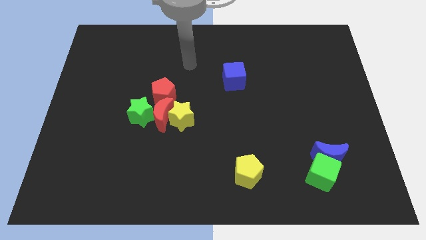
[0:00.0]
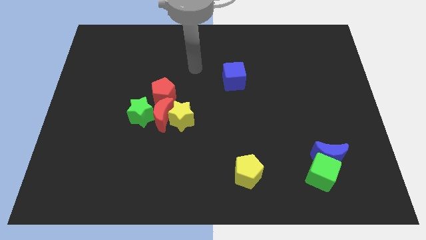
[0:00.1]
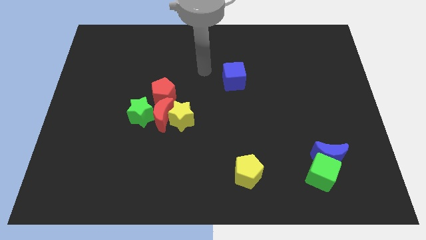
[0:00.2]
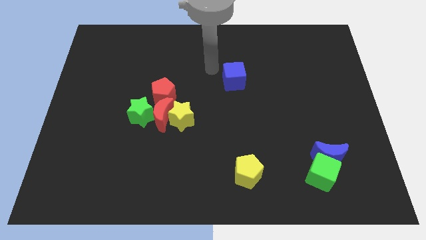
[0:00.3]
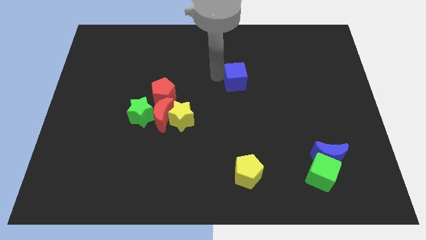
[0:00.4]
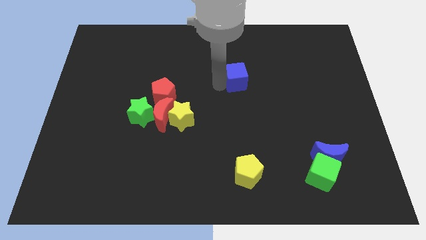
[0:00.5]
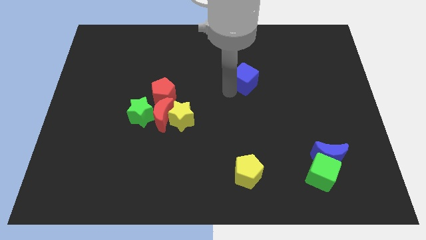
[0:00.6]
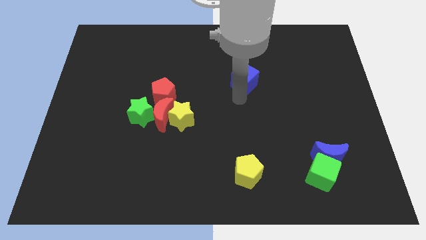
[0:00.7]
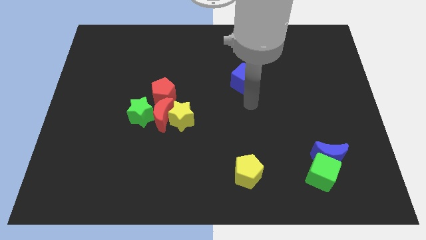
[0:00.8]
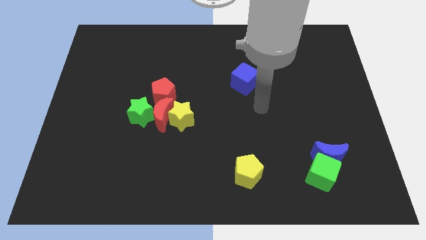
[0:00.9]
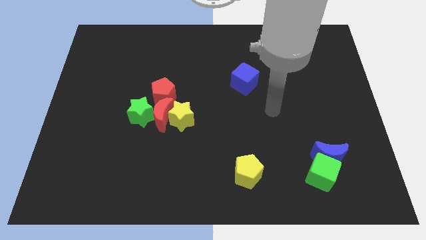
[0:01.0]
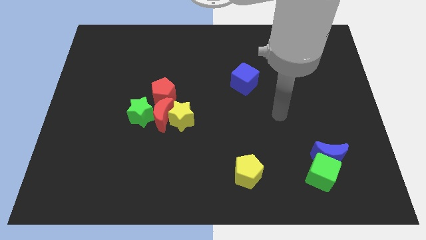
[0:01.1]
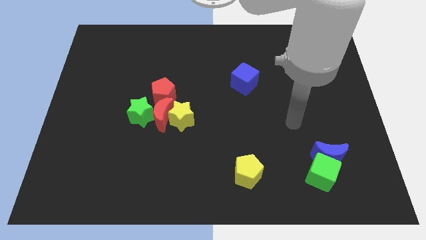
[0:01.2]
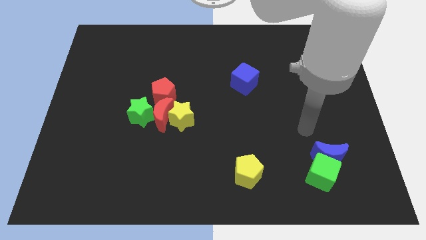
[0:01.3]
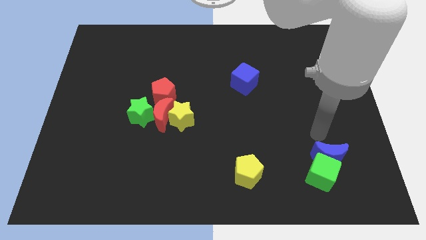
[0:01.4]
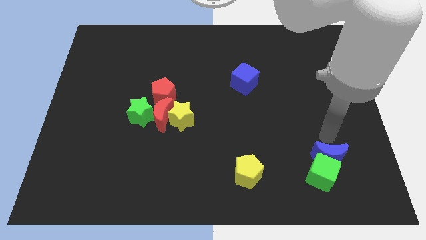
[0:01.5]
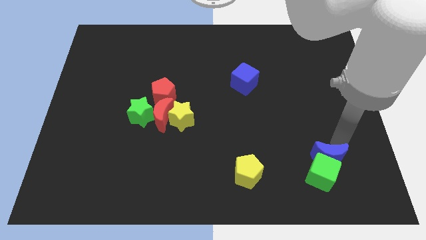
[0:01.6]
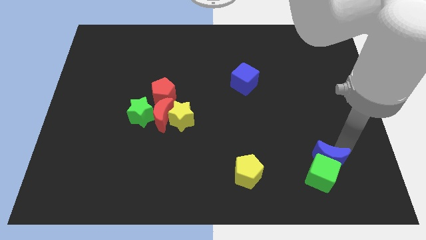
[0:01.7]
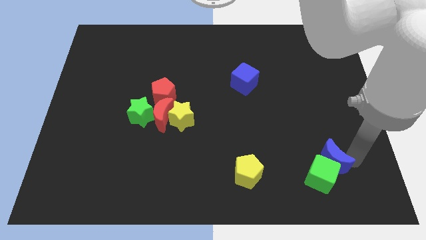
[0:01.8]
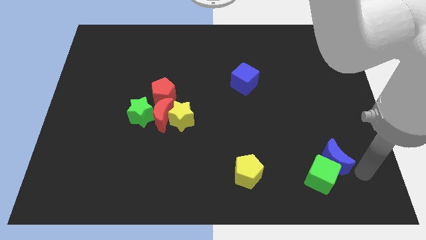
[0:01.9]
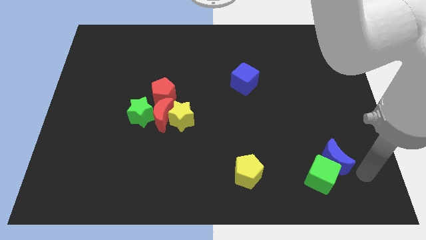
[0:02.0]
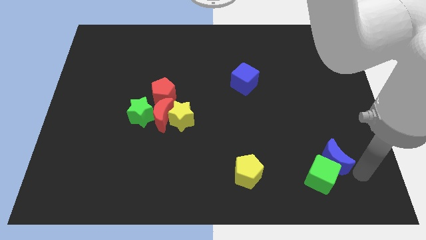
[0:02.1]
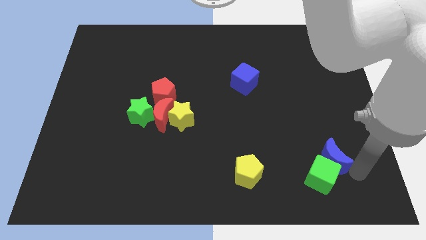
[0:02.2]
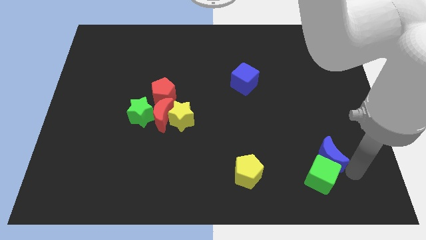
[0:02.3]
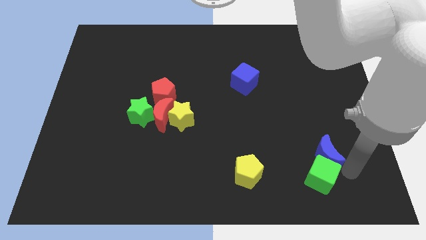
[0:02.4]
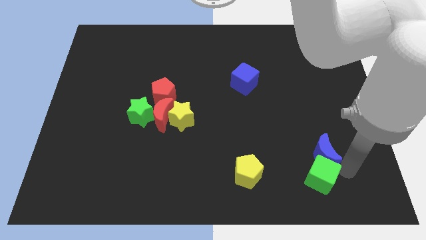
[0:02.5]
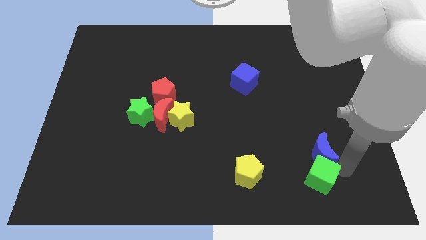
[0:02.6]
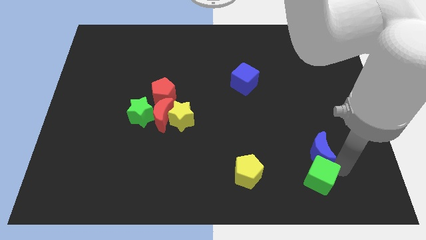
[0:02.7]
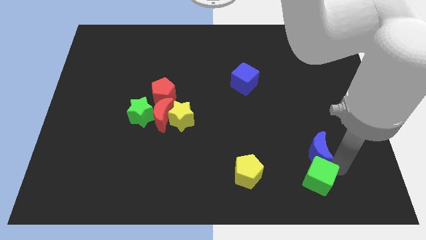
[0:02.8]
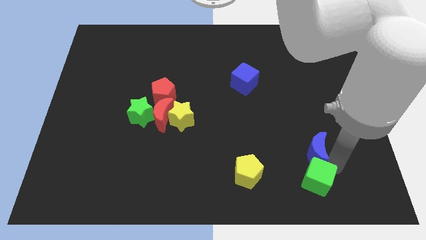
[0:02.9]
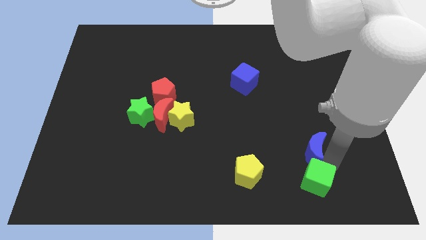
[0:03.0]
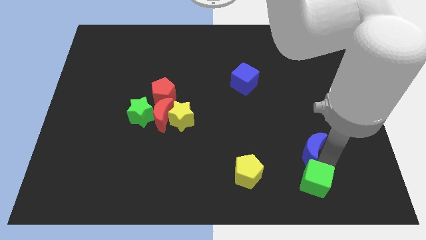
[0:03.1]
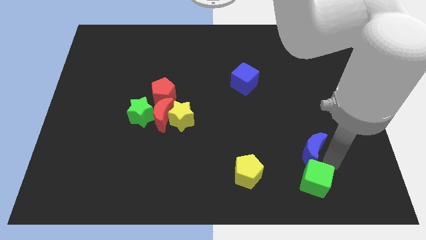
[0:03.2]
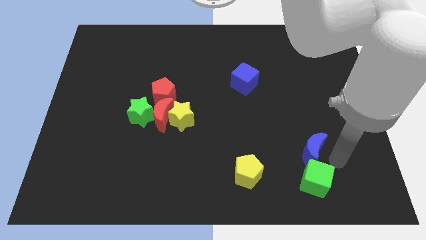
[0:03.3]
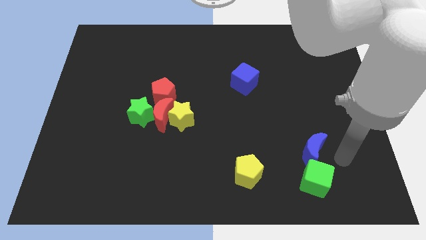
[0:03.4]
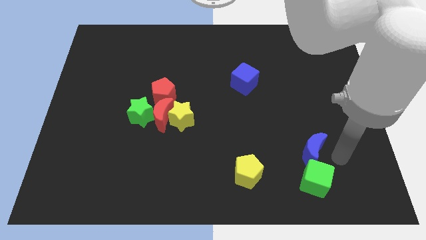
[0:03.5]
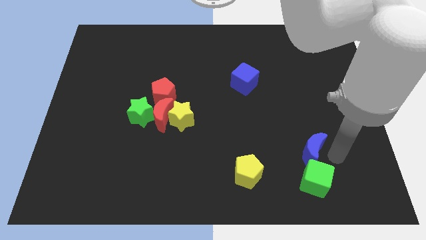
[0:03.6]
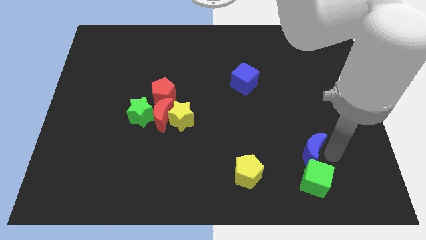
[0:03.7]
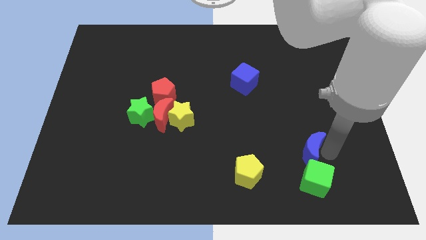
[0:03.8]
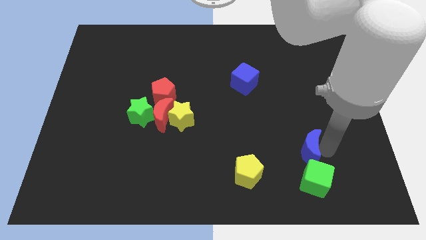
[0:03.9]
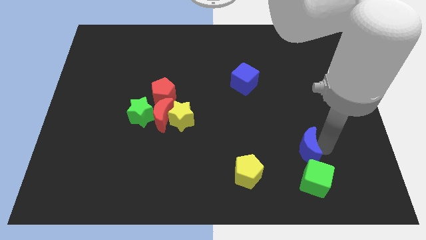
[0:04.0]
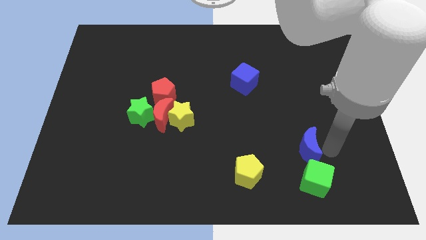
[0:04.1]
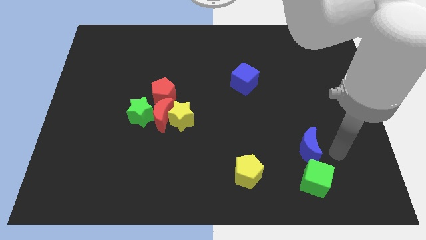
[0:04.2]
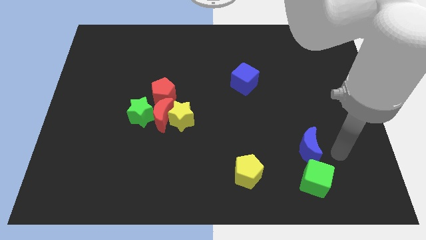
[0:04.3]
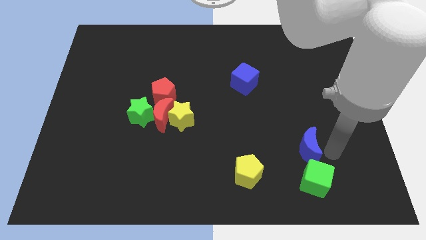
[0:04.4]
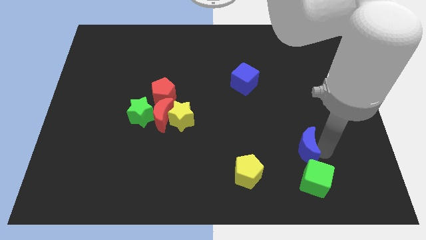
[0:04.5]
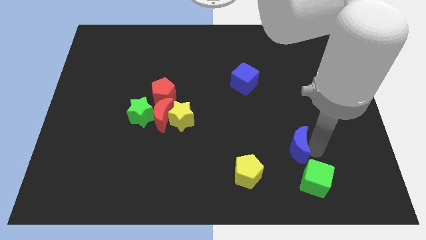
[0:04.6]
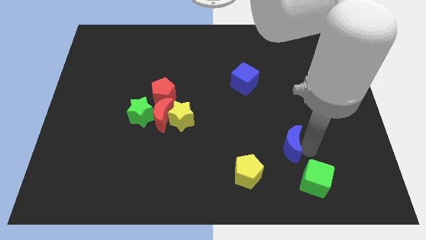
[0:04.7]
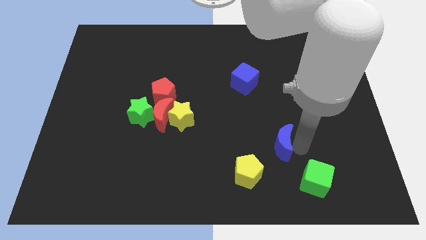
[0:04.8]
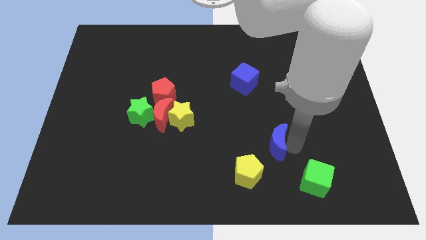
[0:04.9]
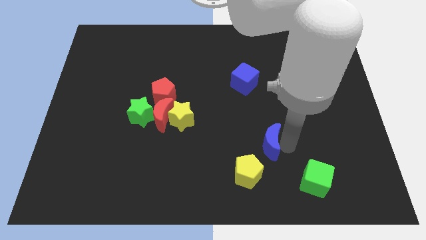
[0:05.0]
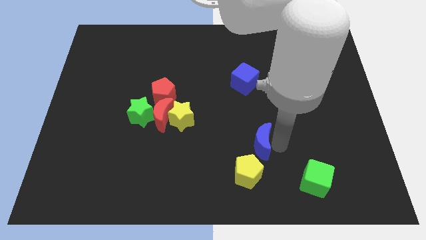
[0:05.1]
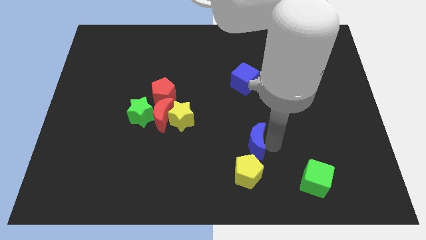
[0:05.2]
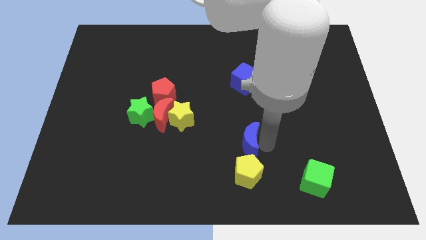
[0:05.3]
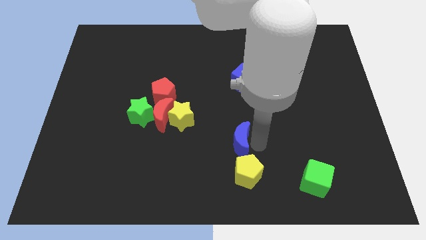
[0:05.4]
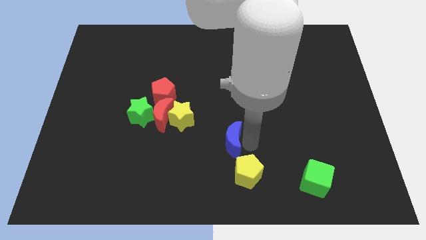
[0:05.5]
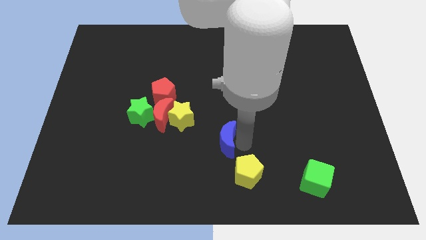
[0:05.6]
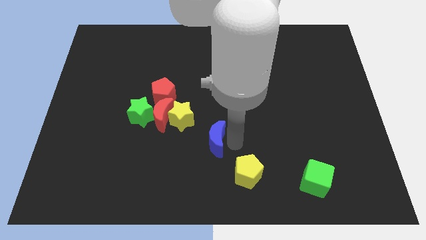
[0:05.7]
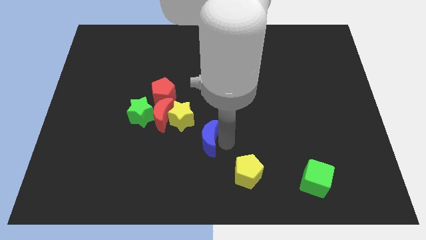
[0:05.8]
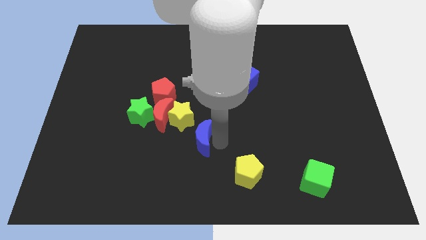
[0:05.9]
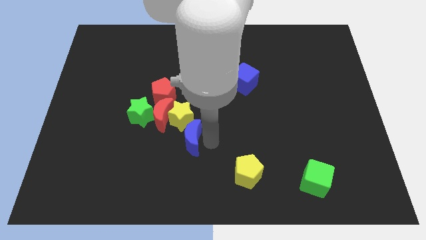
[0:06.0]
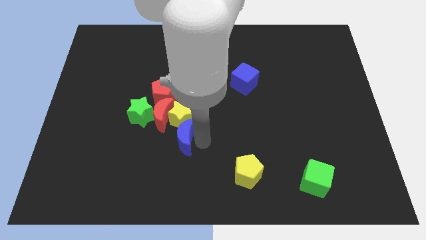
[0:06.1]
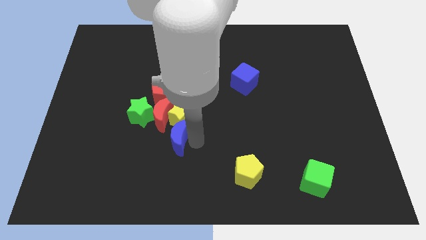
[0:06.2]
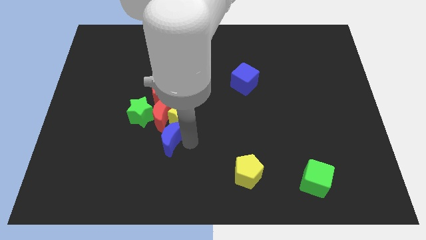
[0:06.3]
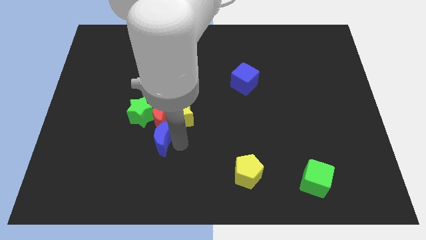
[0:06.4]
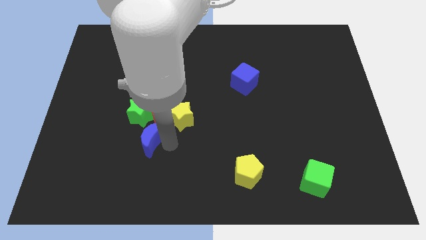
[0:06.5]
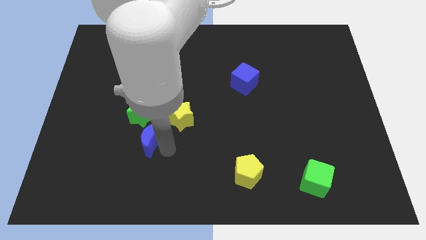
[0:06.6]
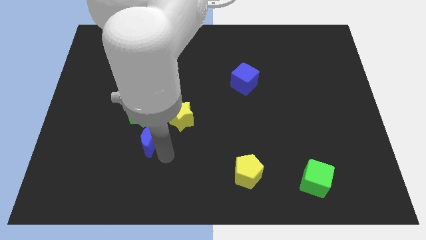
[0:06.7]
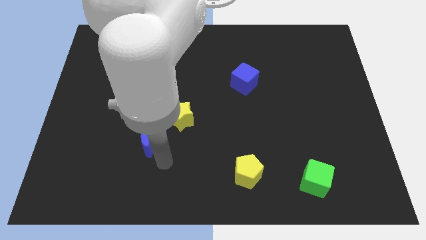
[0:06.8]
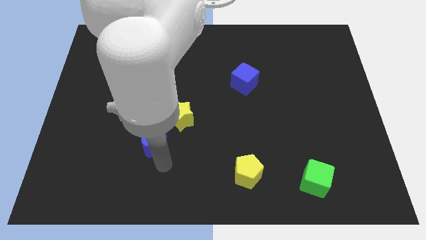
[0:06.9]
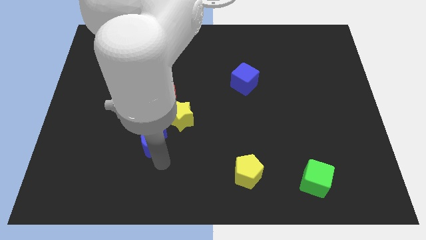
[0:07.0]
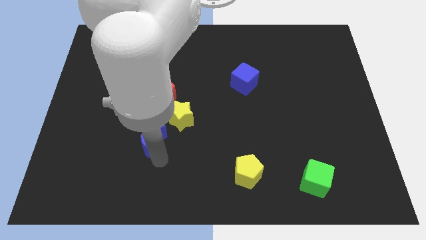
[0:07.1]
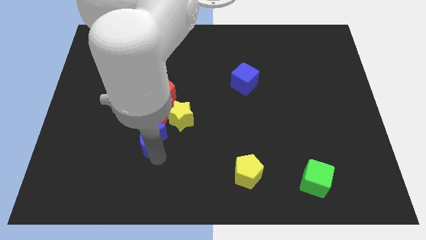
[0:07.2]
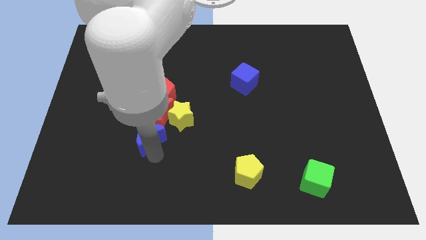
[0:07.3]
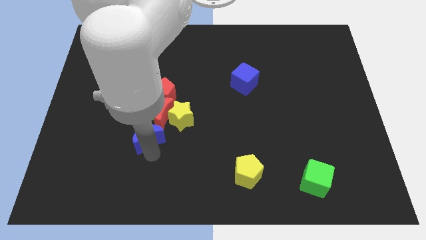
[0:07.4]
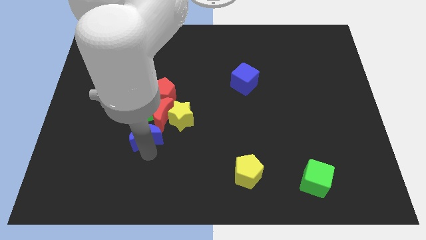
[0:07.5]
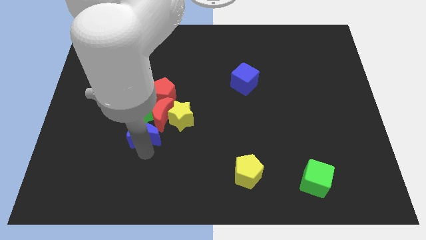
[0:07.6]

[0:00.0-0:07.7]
push the blue moon next to the green star
